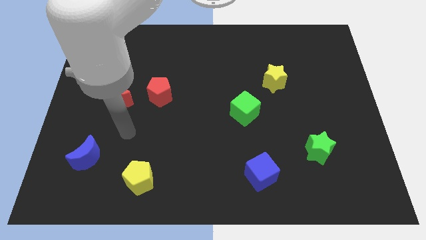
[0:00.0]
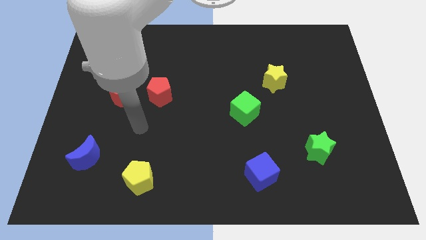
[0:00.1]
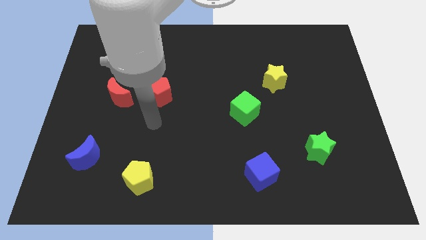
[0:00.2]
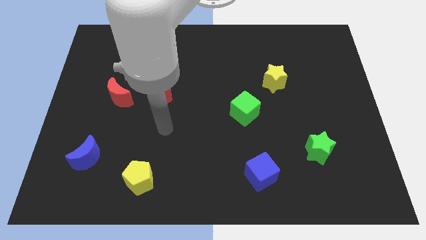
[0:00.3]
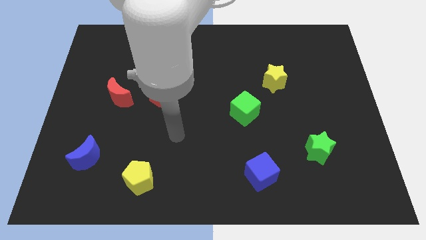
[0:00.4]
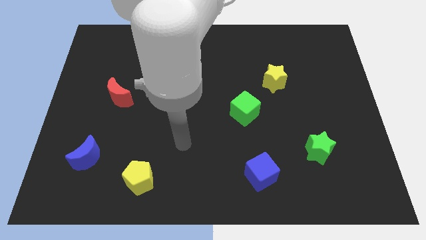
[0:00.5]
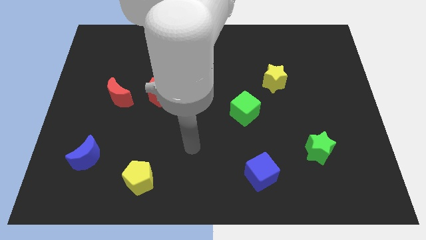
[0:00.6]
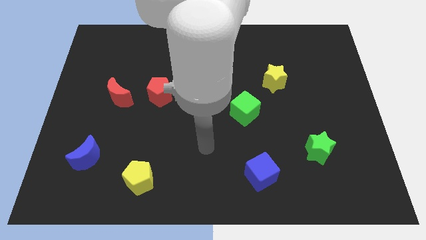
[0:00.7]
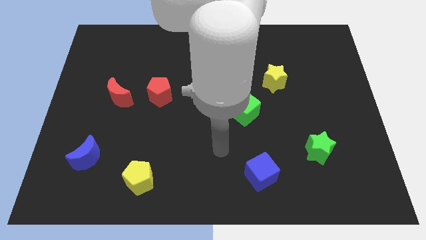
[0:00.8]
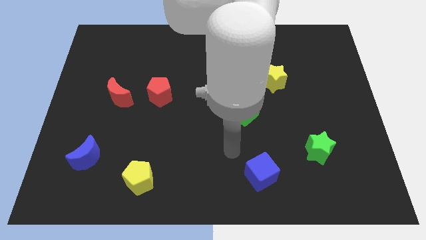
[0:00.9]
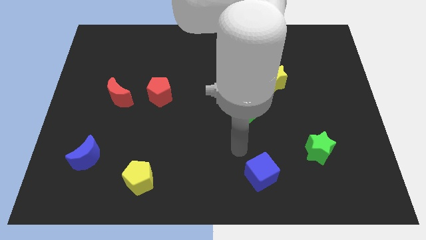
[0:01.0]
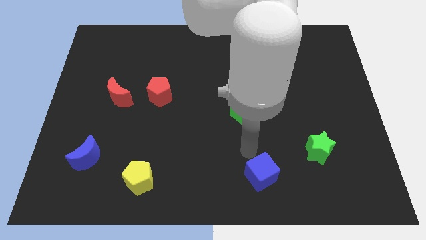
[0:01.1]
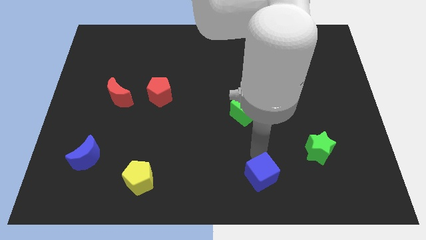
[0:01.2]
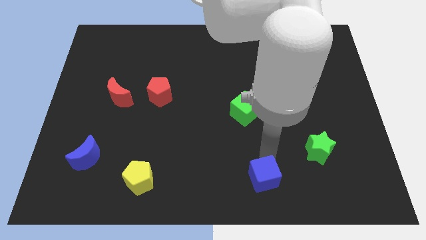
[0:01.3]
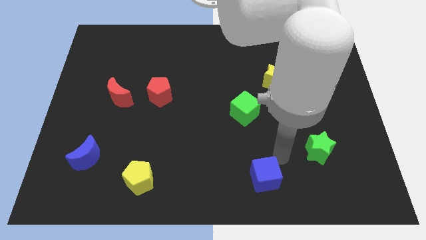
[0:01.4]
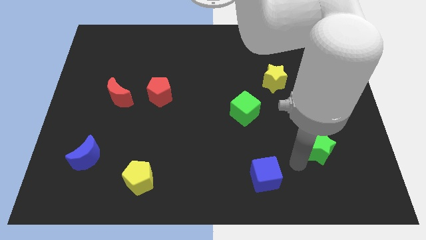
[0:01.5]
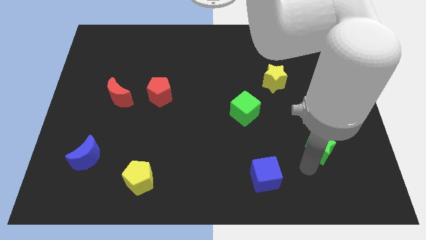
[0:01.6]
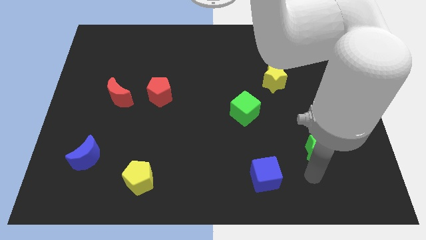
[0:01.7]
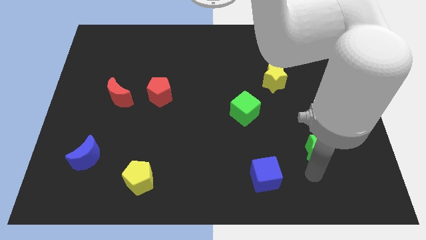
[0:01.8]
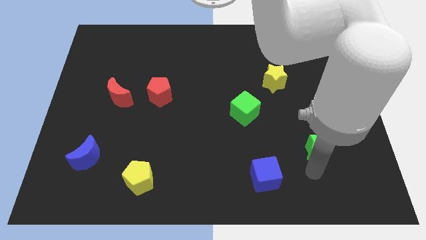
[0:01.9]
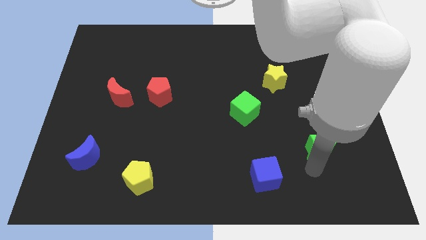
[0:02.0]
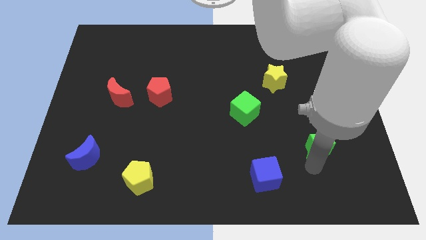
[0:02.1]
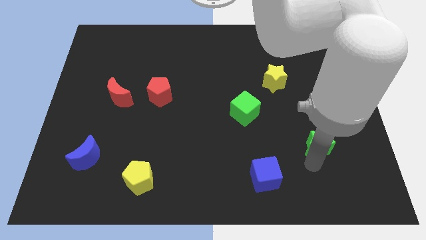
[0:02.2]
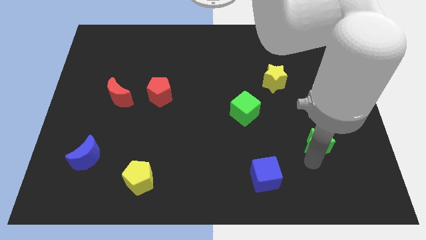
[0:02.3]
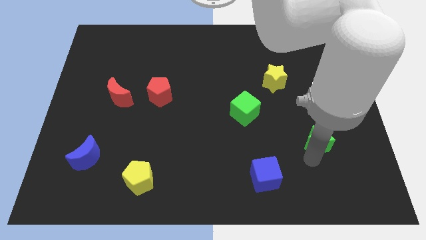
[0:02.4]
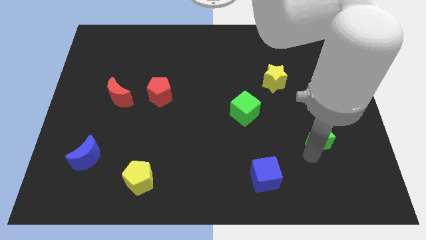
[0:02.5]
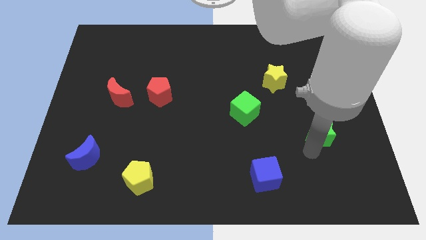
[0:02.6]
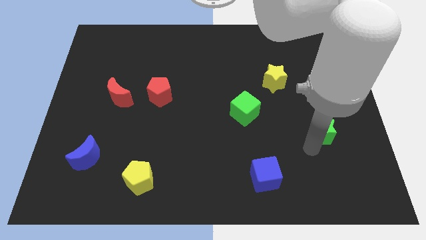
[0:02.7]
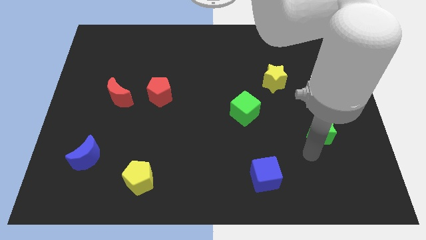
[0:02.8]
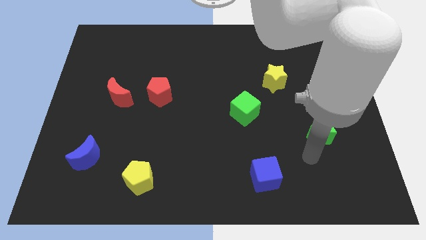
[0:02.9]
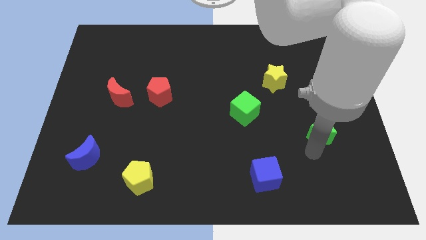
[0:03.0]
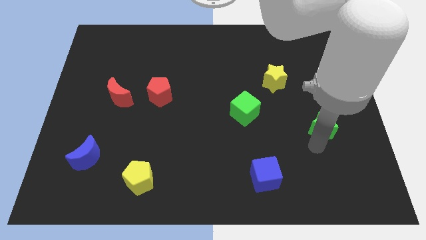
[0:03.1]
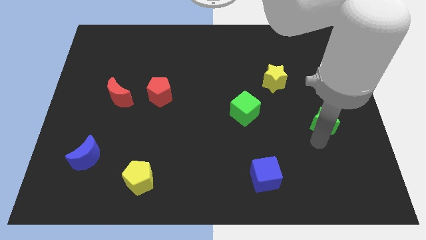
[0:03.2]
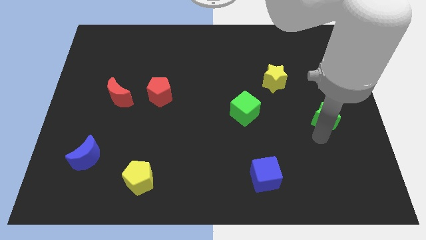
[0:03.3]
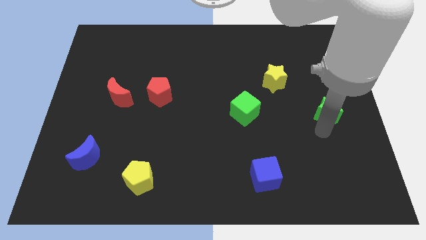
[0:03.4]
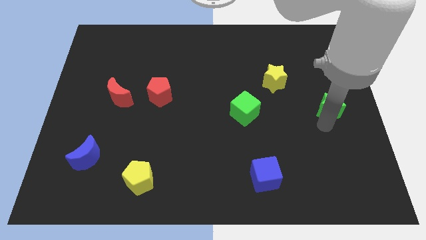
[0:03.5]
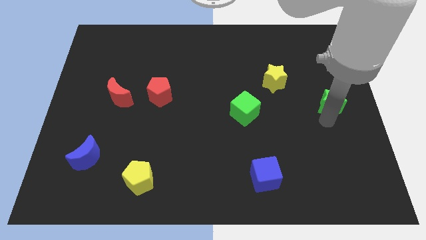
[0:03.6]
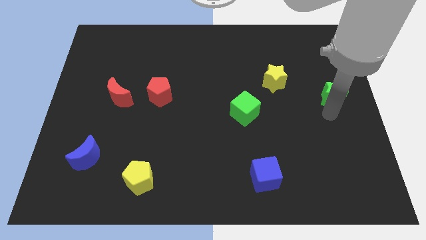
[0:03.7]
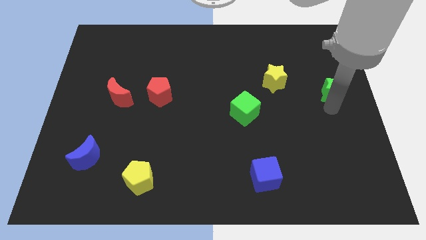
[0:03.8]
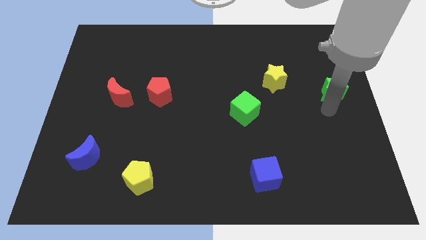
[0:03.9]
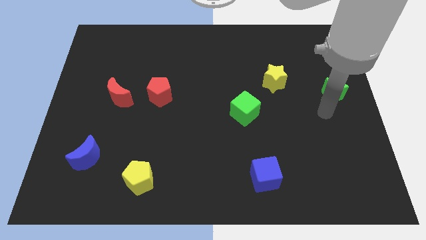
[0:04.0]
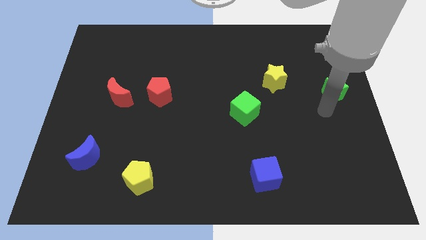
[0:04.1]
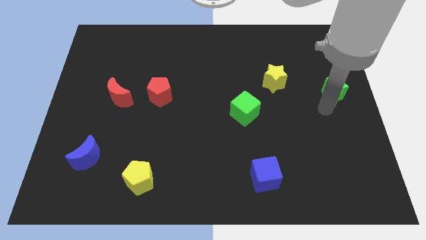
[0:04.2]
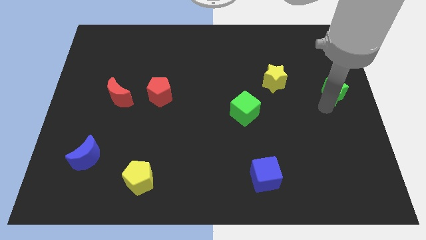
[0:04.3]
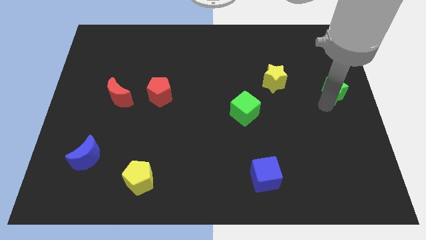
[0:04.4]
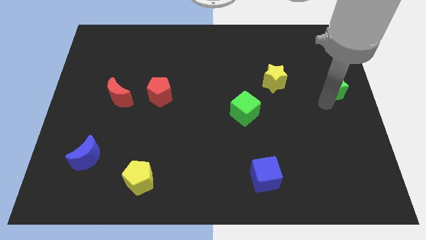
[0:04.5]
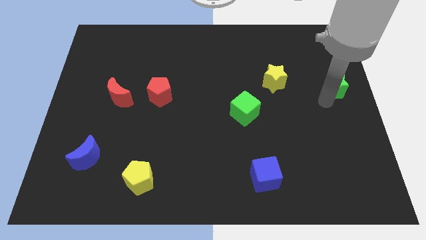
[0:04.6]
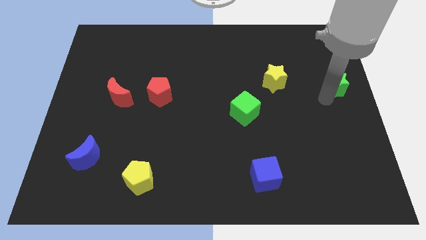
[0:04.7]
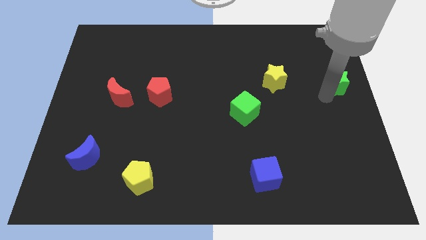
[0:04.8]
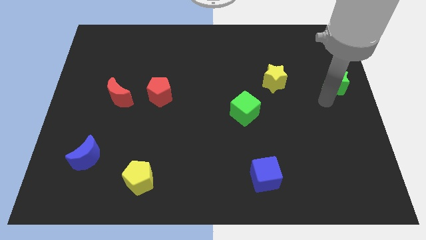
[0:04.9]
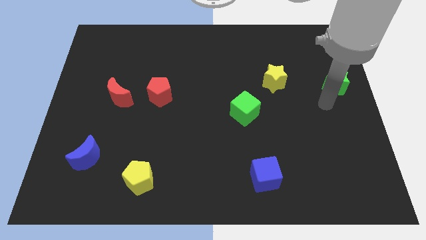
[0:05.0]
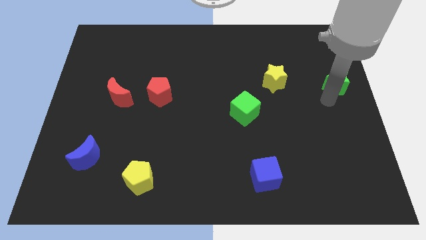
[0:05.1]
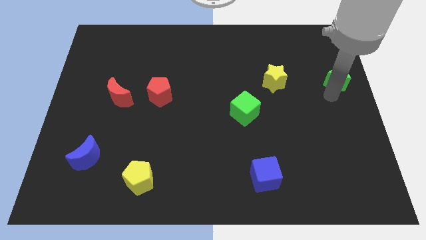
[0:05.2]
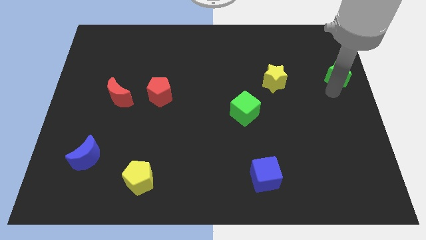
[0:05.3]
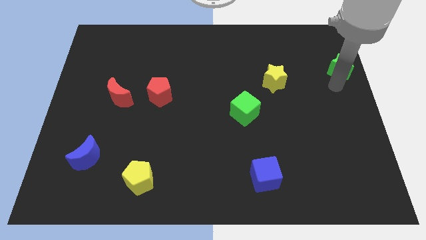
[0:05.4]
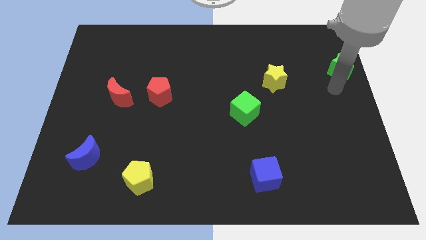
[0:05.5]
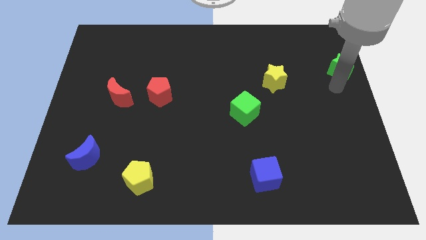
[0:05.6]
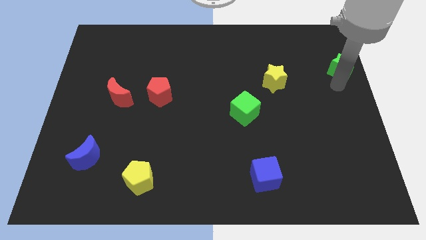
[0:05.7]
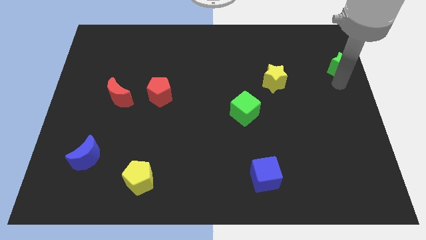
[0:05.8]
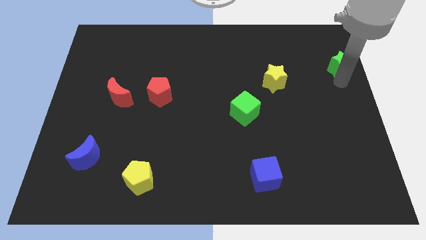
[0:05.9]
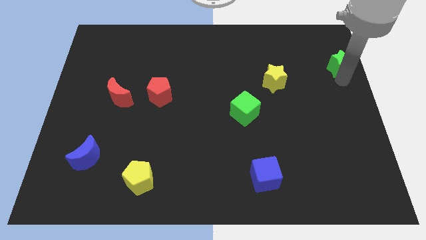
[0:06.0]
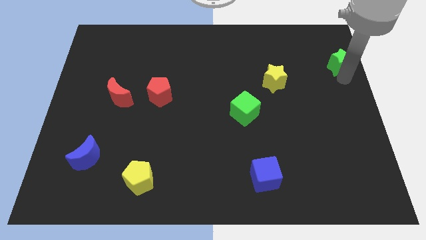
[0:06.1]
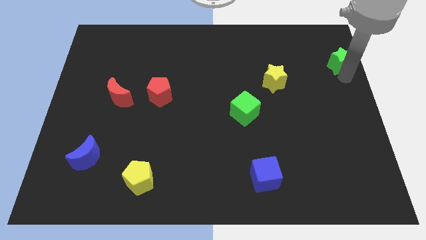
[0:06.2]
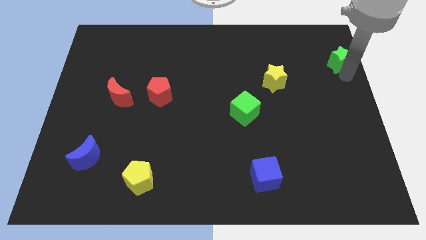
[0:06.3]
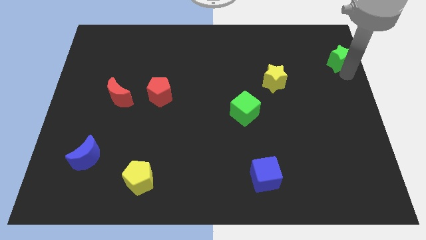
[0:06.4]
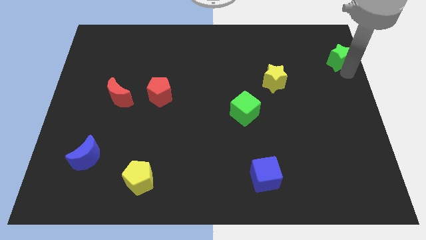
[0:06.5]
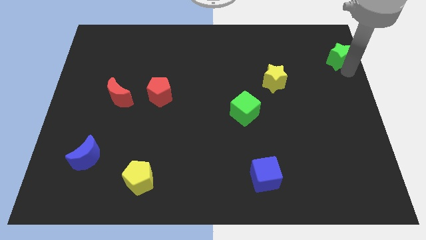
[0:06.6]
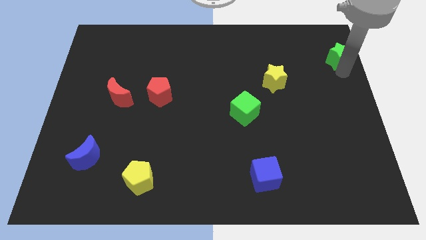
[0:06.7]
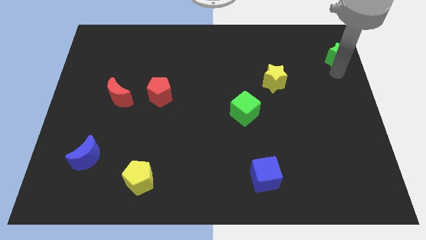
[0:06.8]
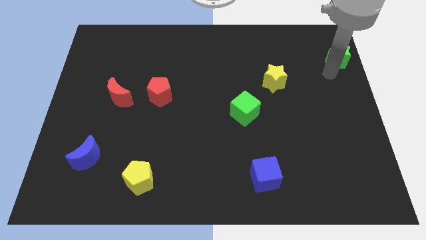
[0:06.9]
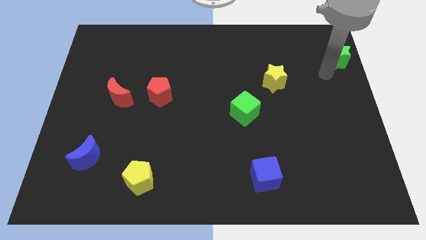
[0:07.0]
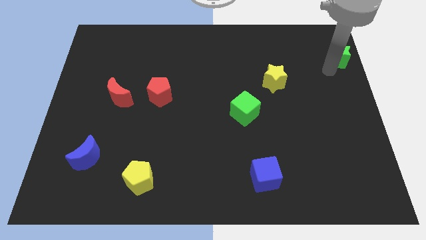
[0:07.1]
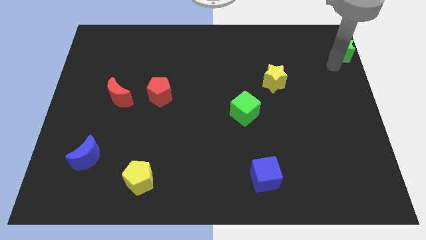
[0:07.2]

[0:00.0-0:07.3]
push the green star to the top right corner

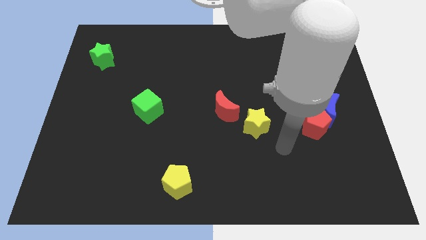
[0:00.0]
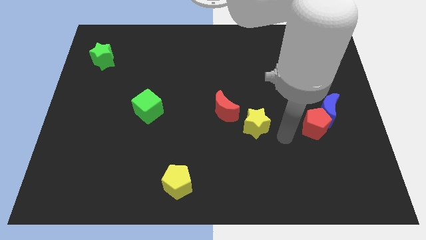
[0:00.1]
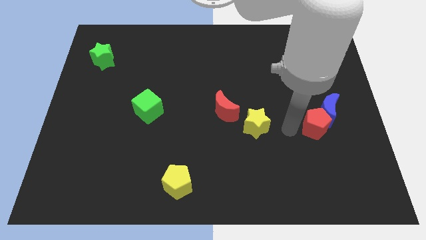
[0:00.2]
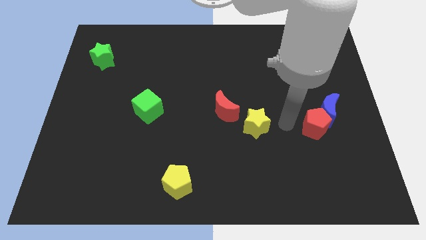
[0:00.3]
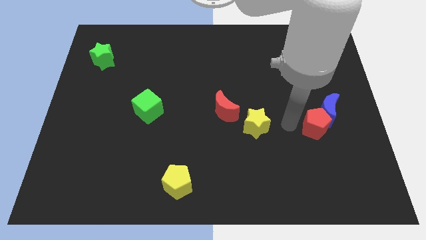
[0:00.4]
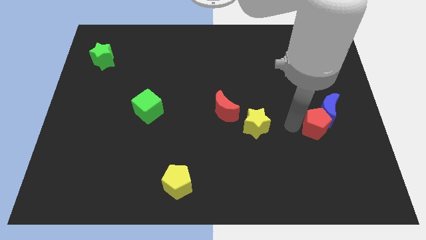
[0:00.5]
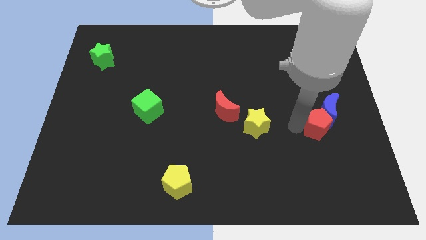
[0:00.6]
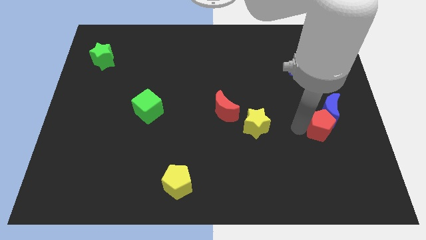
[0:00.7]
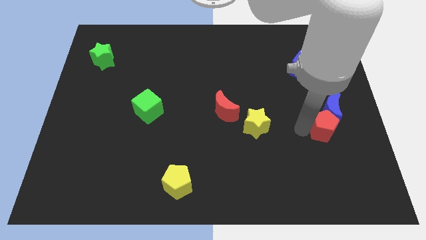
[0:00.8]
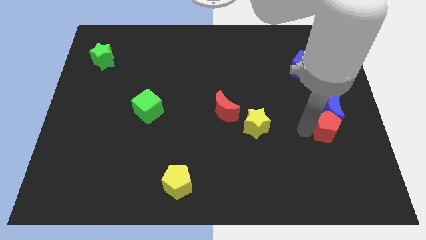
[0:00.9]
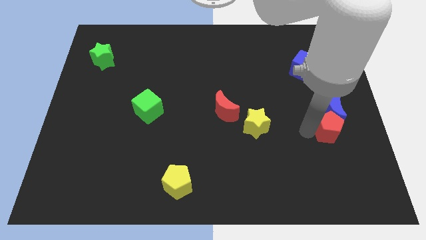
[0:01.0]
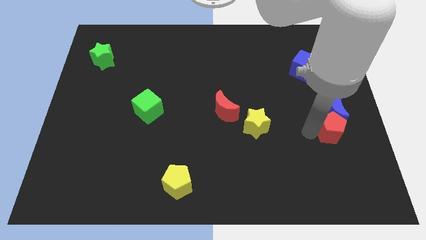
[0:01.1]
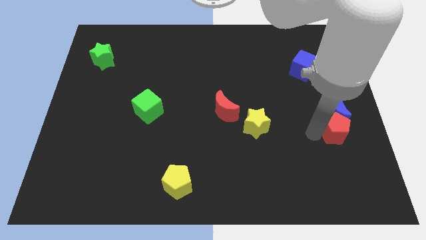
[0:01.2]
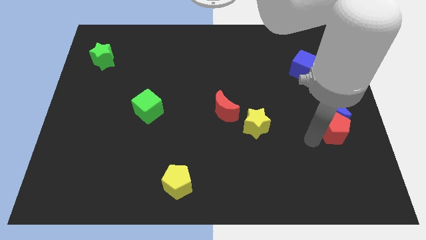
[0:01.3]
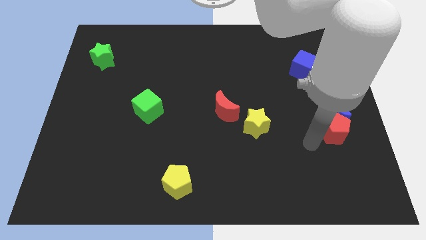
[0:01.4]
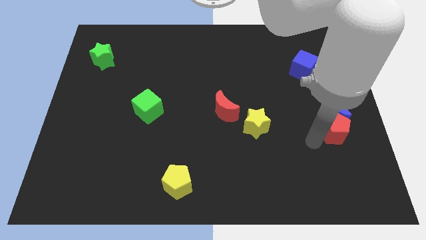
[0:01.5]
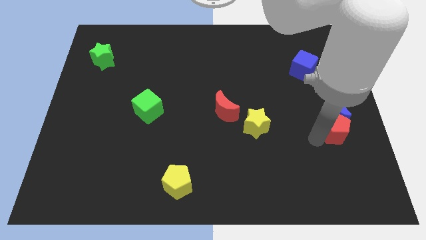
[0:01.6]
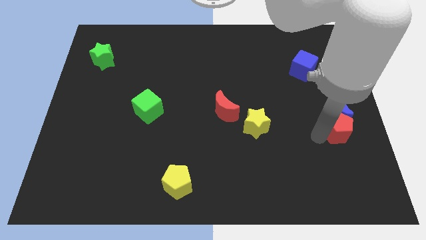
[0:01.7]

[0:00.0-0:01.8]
put the red pentagon to the right side of the board
